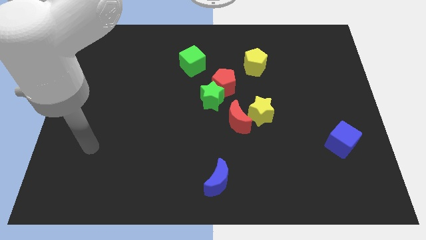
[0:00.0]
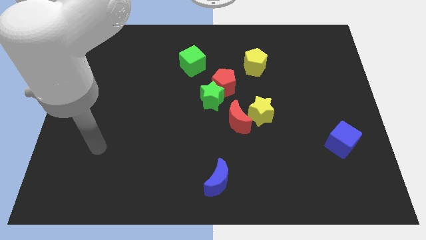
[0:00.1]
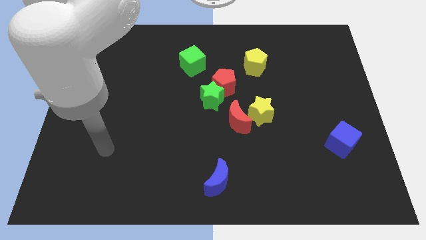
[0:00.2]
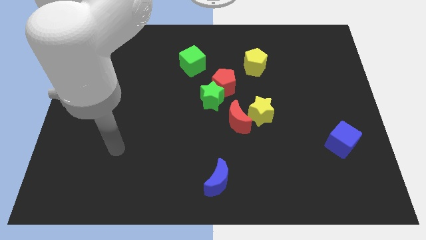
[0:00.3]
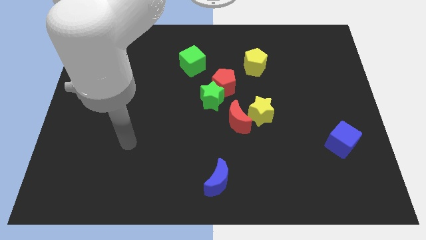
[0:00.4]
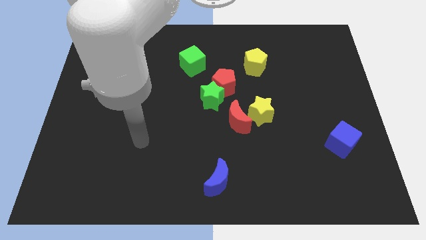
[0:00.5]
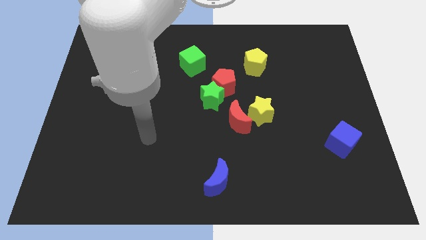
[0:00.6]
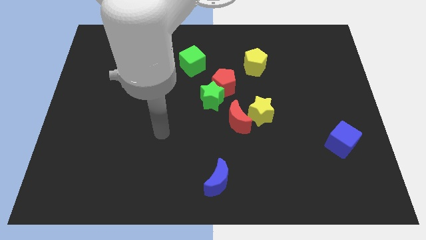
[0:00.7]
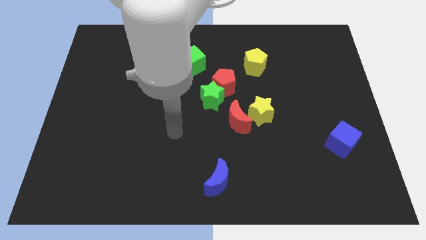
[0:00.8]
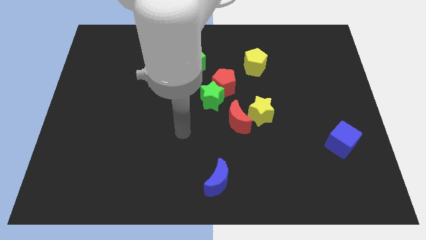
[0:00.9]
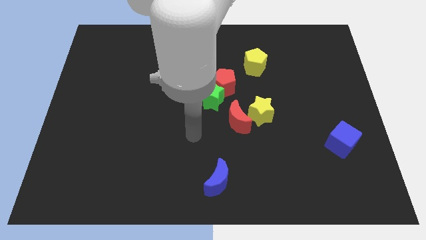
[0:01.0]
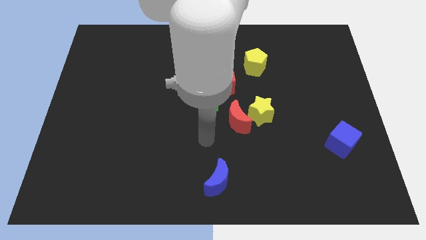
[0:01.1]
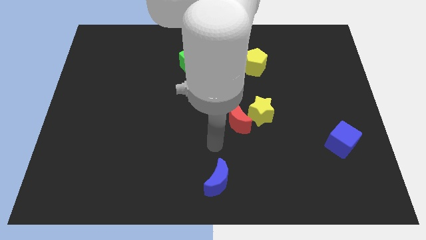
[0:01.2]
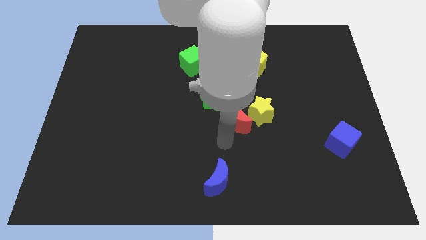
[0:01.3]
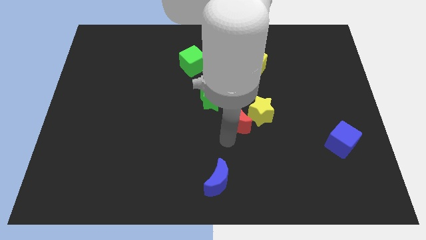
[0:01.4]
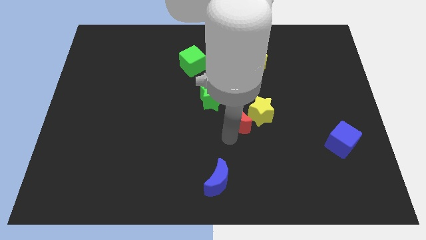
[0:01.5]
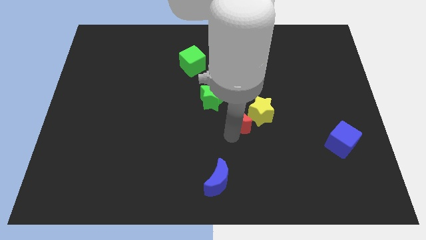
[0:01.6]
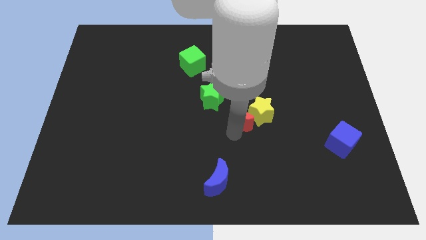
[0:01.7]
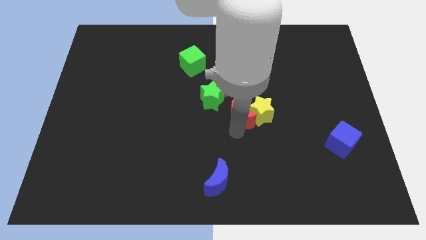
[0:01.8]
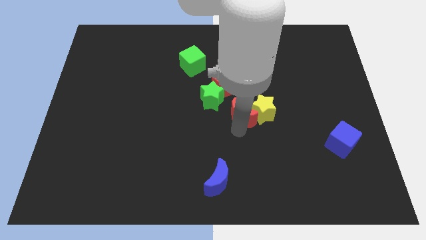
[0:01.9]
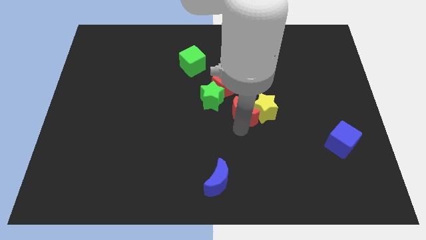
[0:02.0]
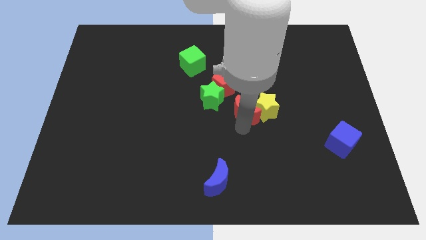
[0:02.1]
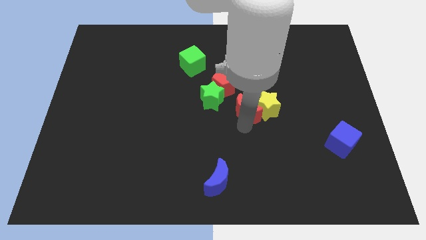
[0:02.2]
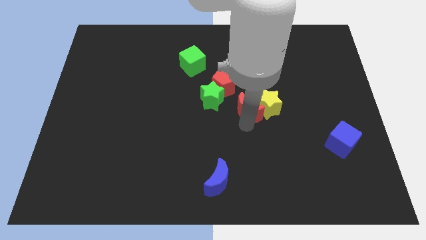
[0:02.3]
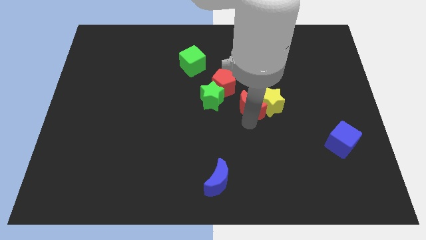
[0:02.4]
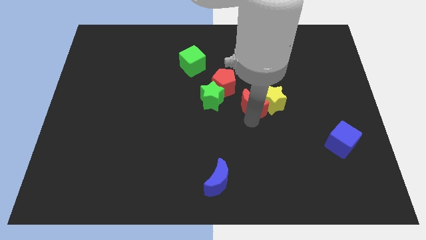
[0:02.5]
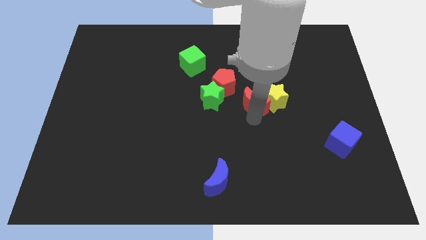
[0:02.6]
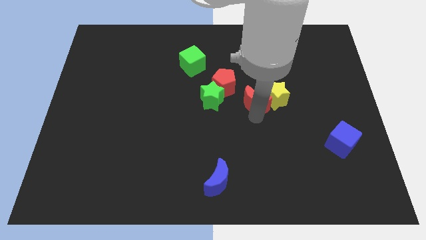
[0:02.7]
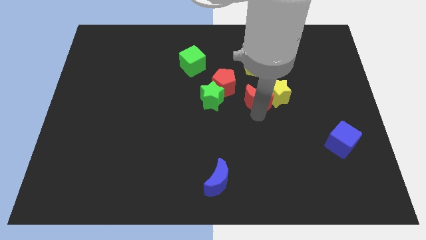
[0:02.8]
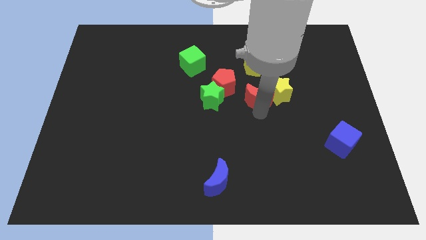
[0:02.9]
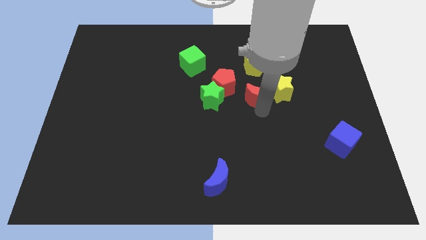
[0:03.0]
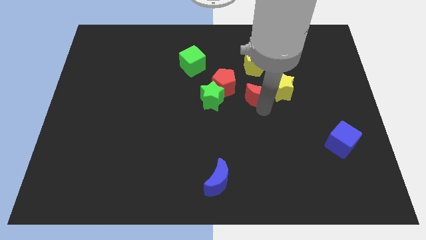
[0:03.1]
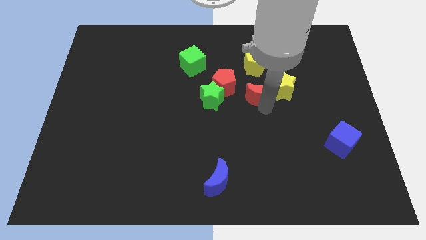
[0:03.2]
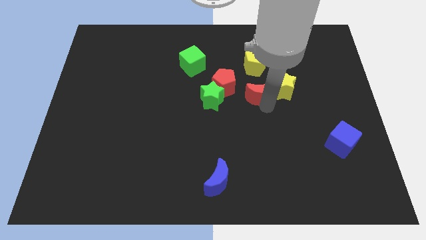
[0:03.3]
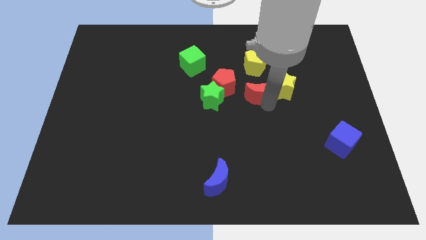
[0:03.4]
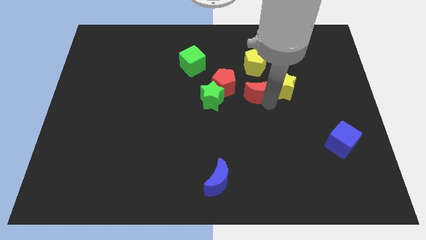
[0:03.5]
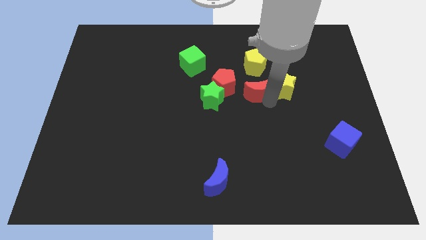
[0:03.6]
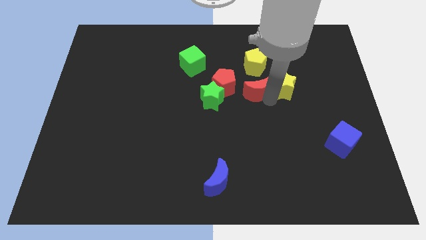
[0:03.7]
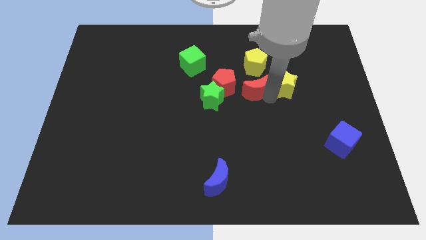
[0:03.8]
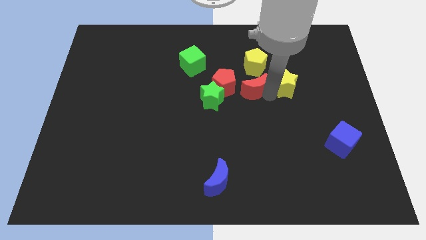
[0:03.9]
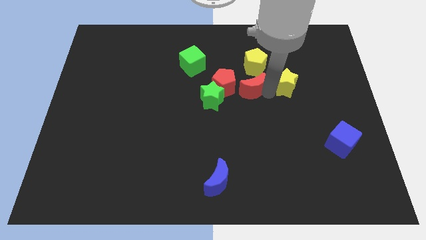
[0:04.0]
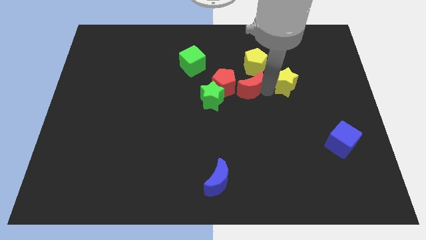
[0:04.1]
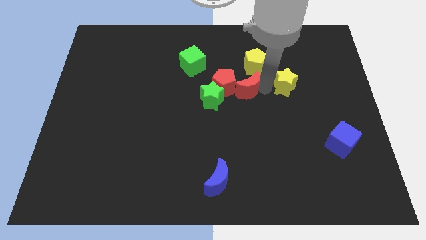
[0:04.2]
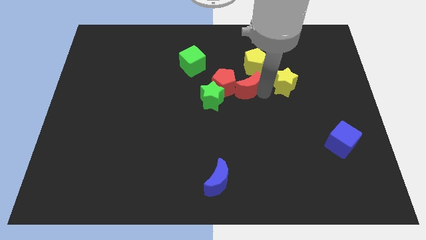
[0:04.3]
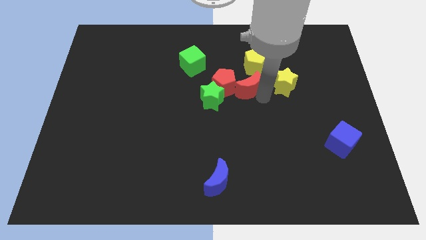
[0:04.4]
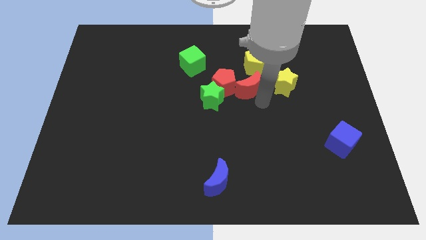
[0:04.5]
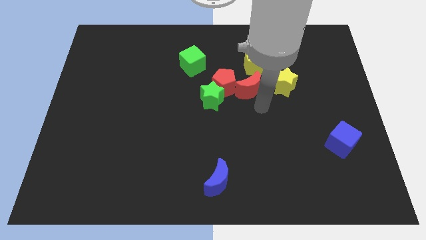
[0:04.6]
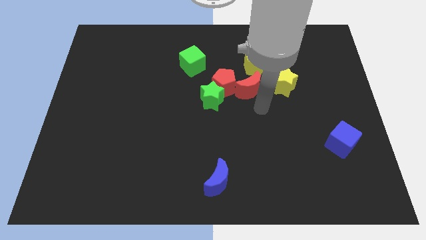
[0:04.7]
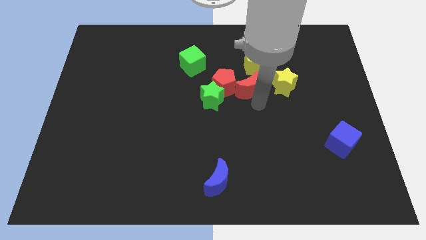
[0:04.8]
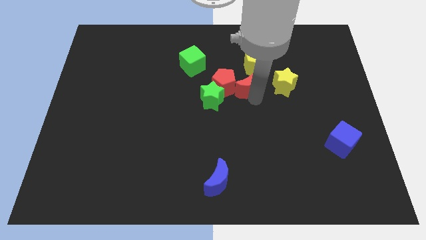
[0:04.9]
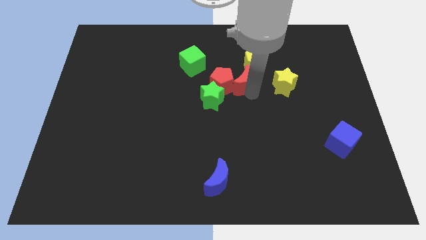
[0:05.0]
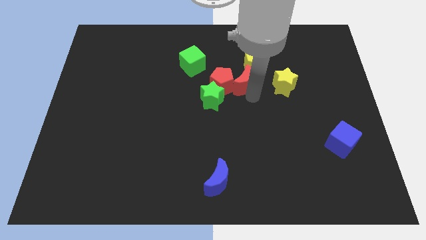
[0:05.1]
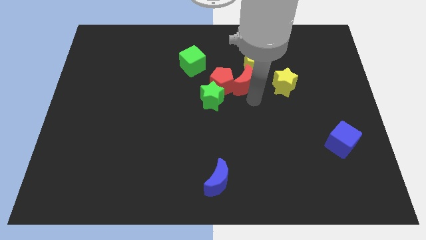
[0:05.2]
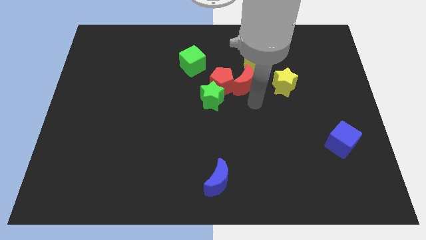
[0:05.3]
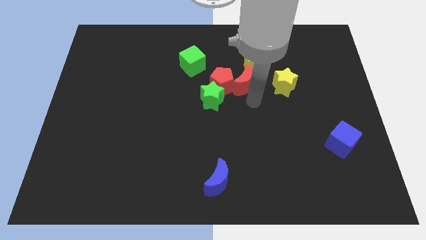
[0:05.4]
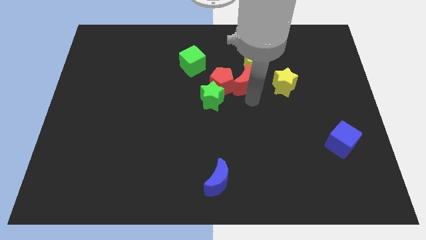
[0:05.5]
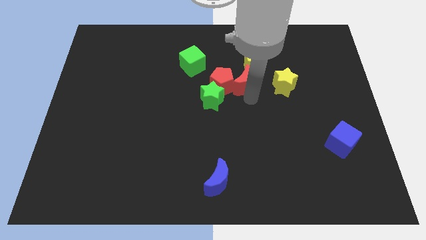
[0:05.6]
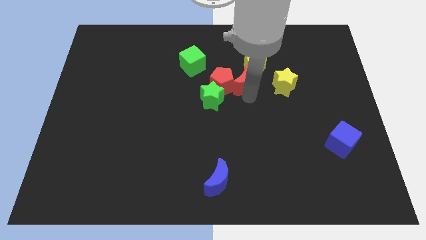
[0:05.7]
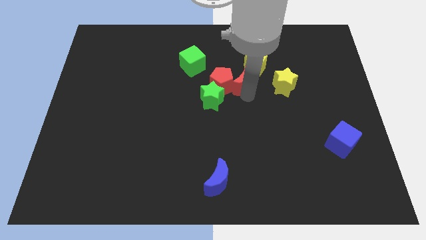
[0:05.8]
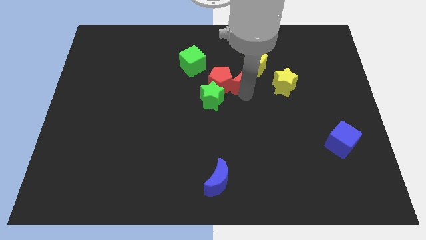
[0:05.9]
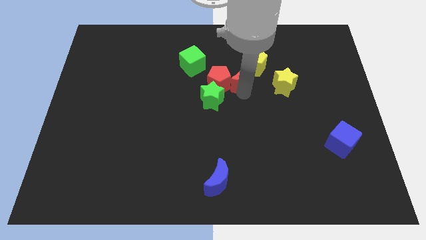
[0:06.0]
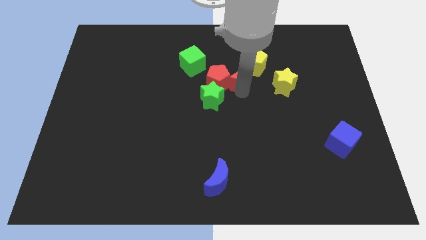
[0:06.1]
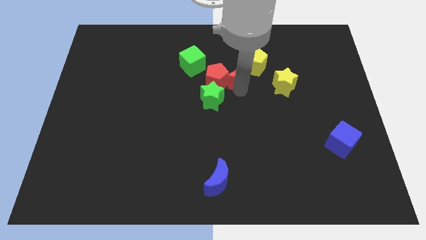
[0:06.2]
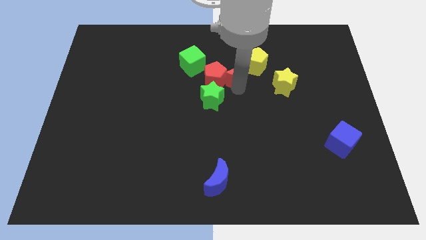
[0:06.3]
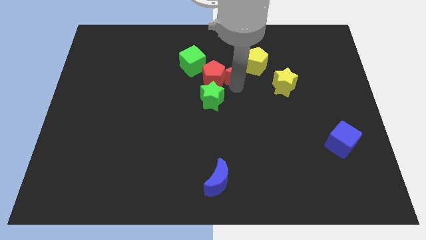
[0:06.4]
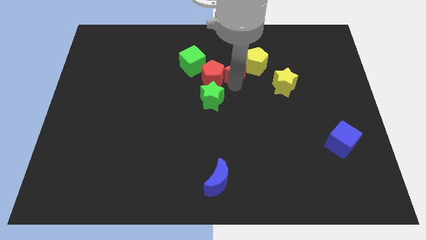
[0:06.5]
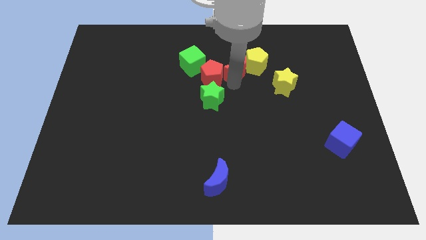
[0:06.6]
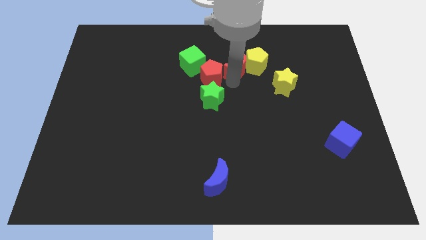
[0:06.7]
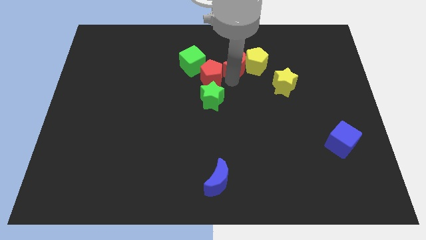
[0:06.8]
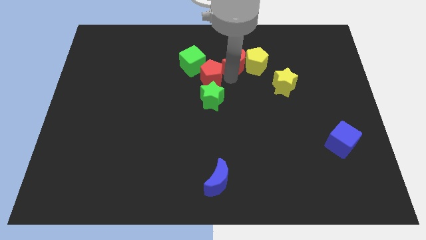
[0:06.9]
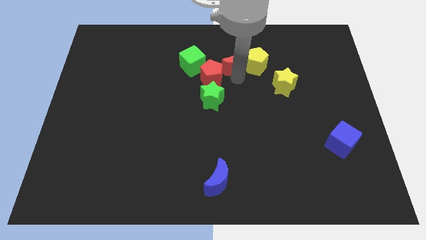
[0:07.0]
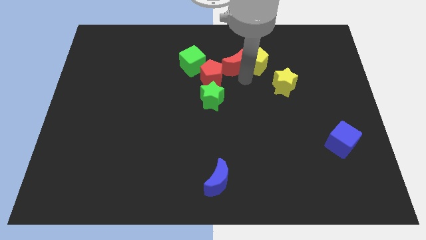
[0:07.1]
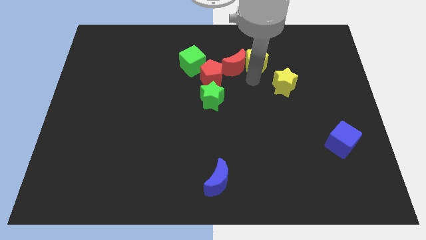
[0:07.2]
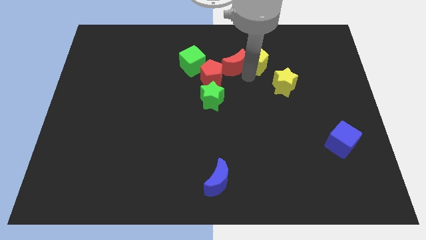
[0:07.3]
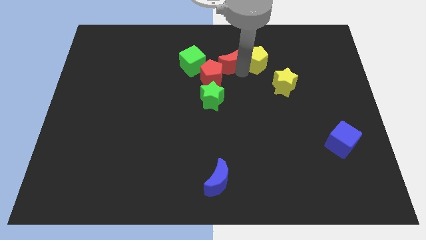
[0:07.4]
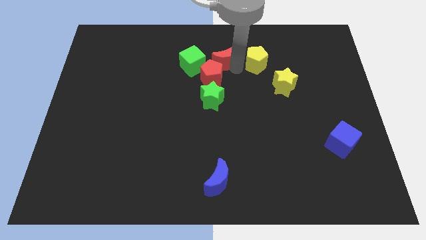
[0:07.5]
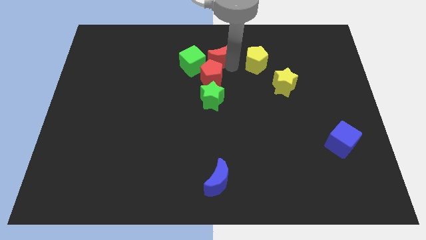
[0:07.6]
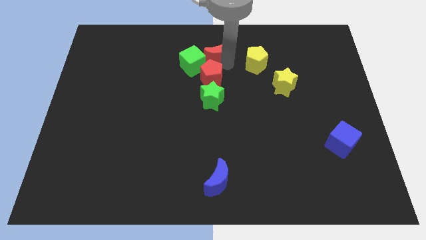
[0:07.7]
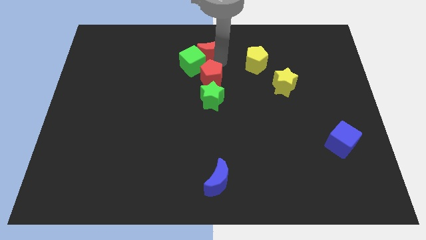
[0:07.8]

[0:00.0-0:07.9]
move the red moon to the towards your base
